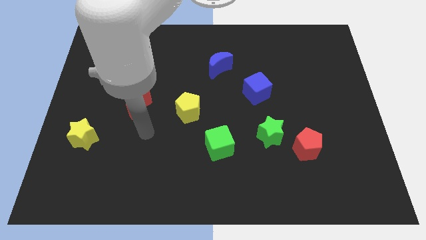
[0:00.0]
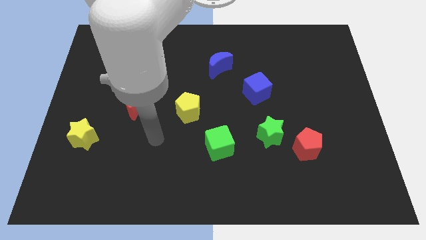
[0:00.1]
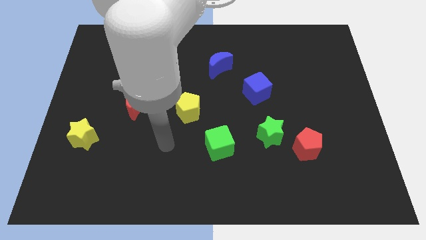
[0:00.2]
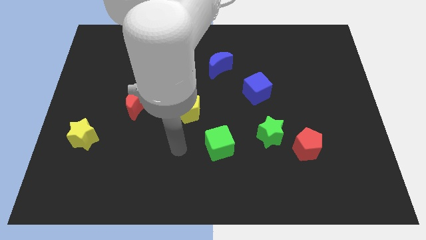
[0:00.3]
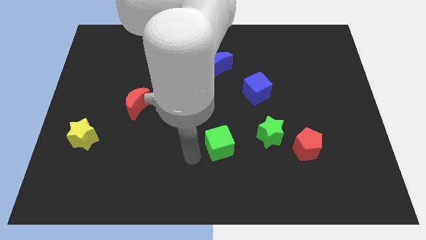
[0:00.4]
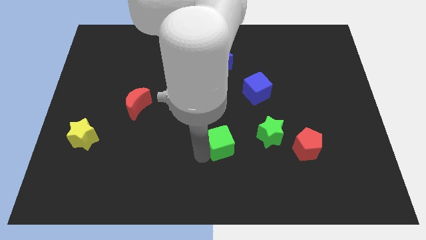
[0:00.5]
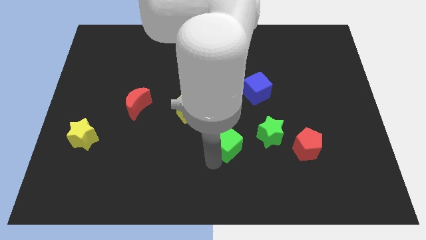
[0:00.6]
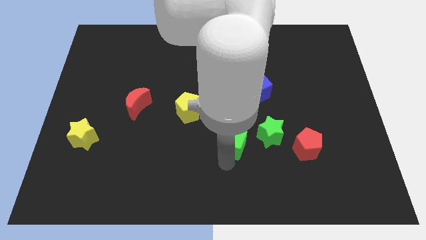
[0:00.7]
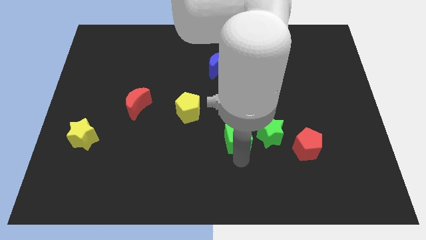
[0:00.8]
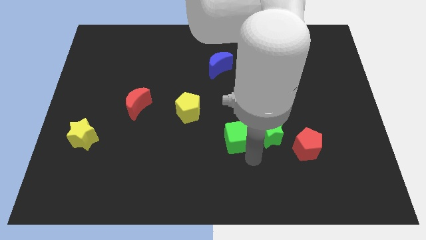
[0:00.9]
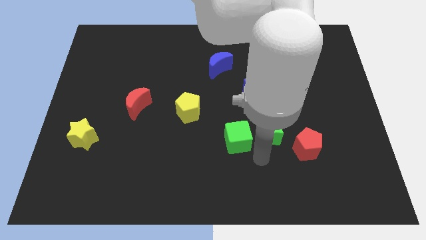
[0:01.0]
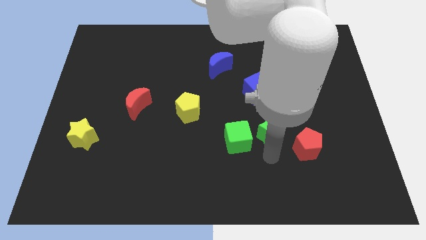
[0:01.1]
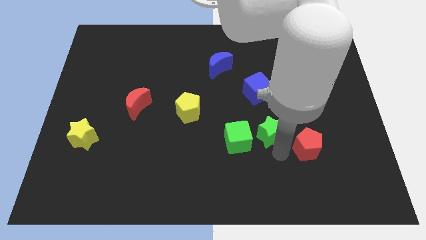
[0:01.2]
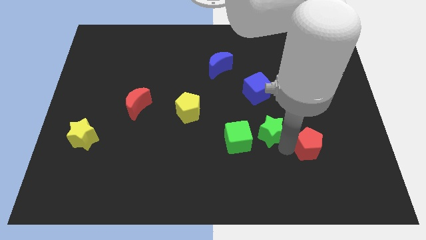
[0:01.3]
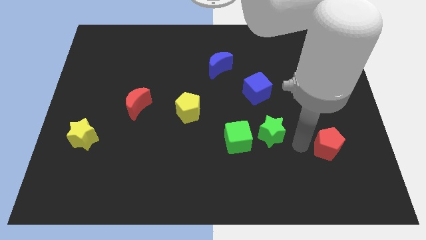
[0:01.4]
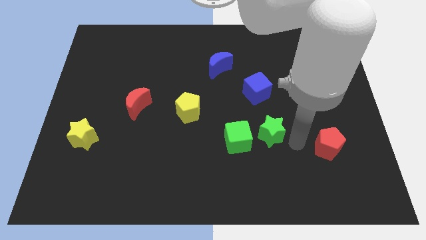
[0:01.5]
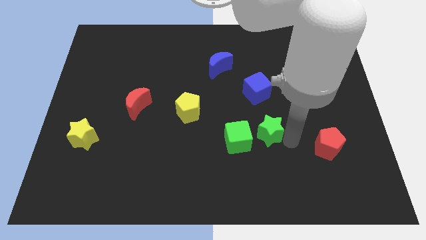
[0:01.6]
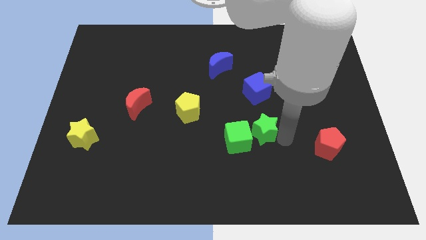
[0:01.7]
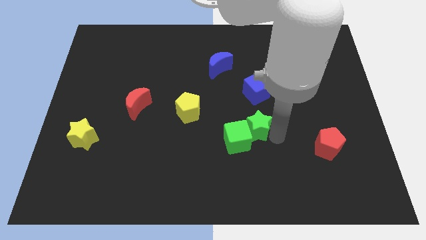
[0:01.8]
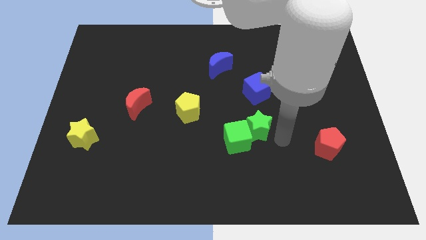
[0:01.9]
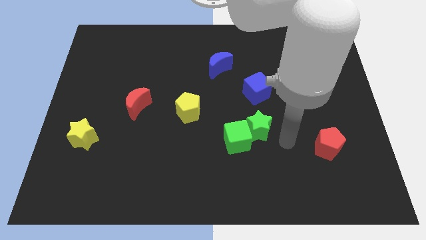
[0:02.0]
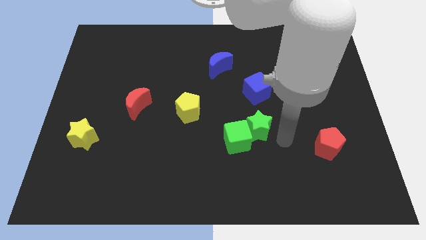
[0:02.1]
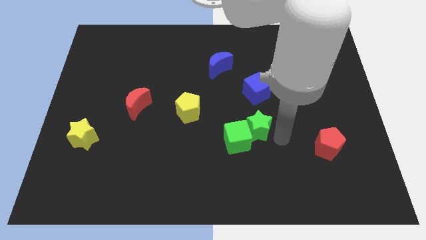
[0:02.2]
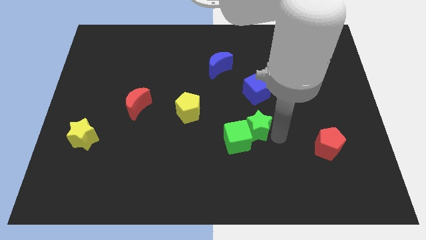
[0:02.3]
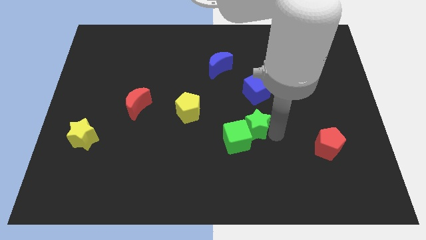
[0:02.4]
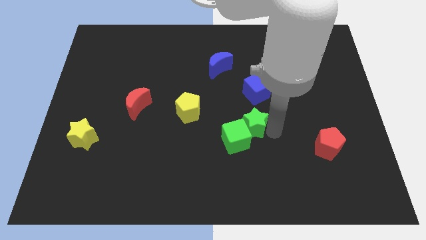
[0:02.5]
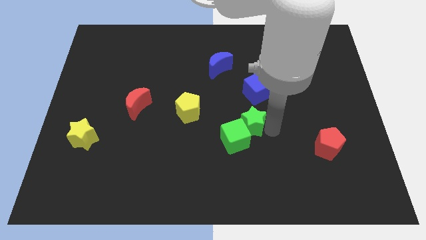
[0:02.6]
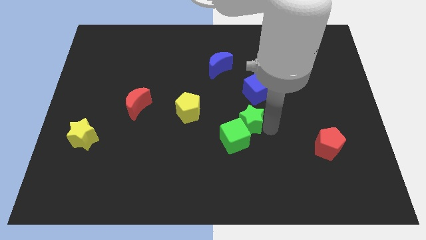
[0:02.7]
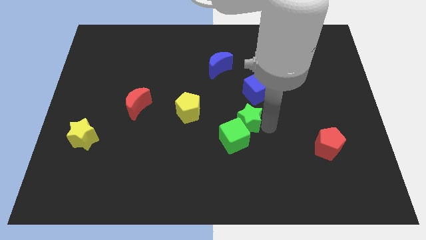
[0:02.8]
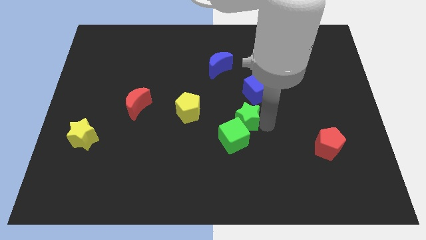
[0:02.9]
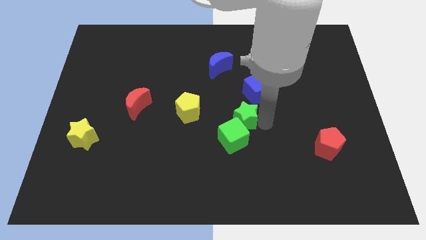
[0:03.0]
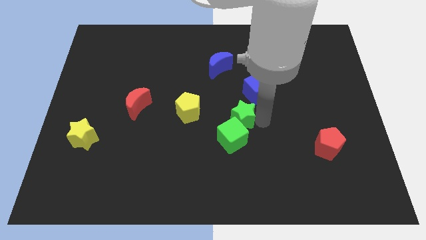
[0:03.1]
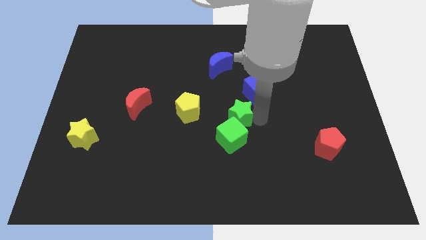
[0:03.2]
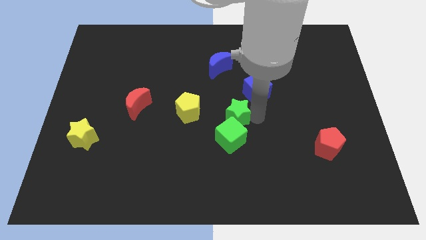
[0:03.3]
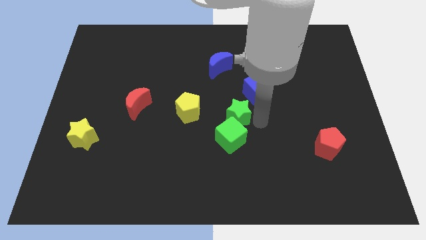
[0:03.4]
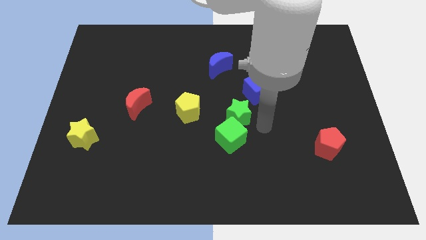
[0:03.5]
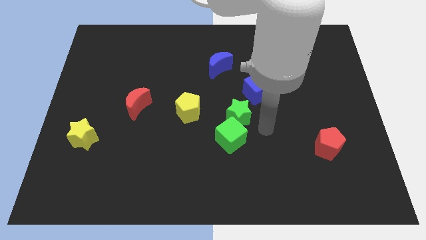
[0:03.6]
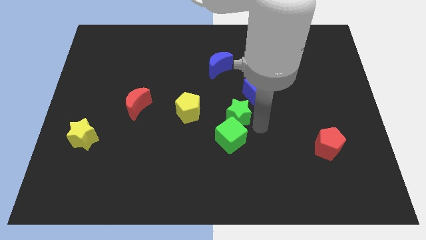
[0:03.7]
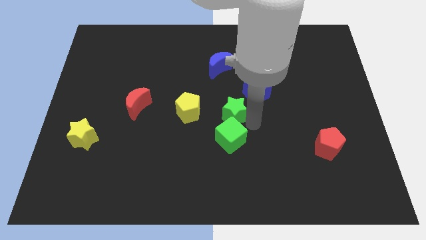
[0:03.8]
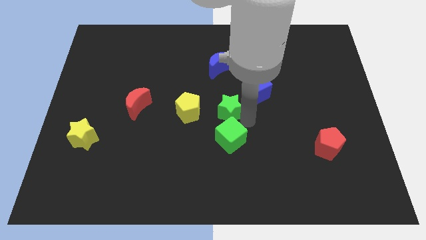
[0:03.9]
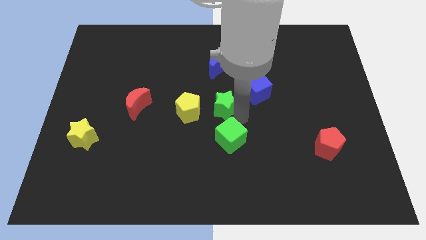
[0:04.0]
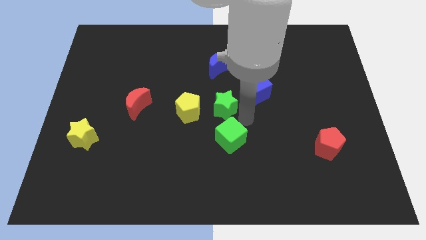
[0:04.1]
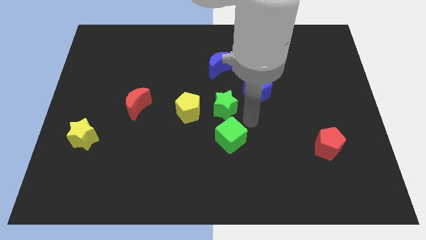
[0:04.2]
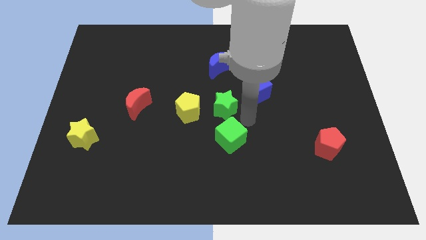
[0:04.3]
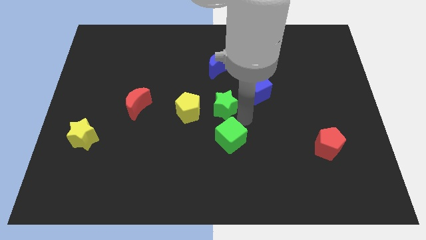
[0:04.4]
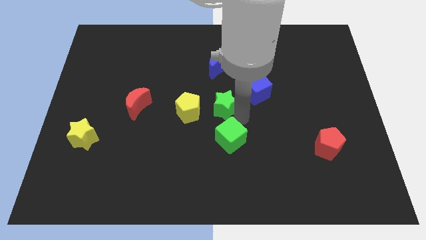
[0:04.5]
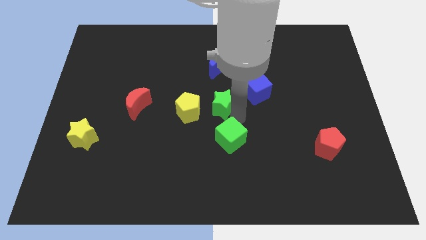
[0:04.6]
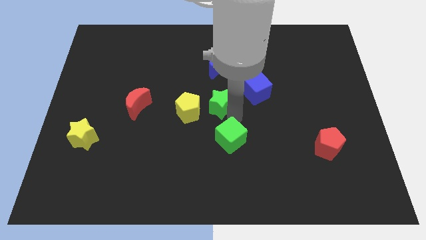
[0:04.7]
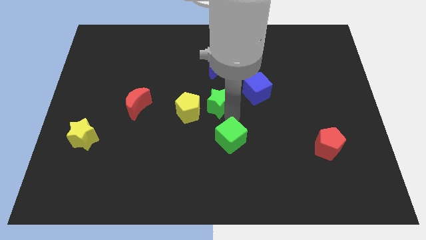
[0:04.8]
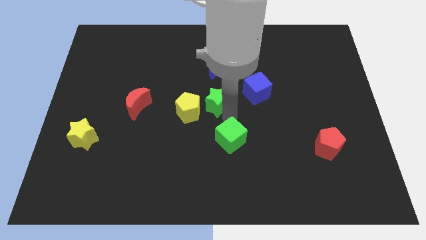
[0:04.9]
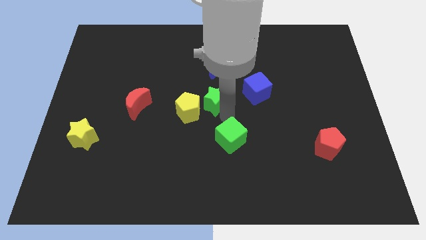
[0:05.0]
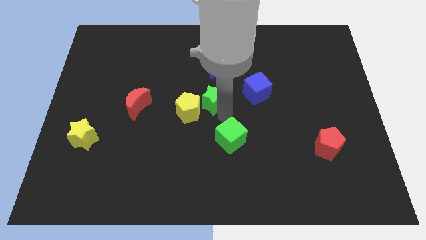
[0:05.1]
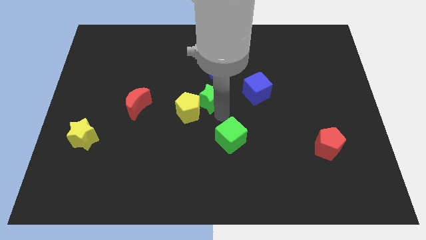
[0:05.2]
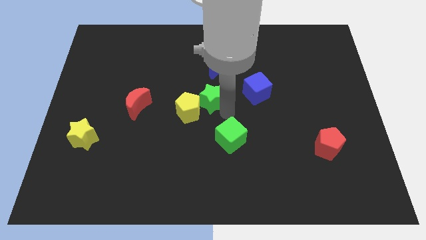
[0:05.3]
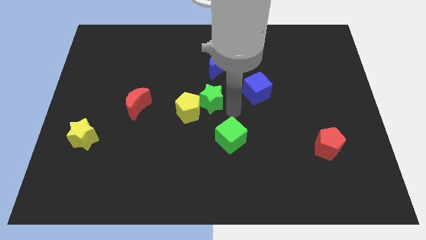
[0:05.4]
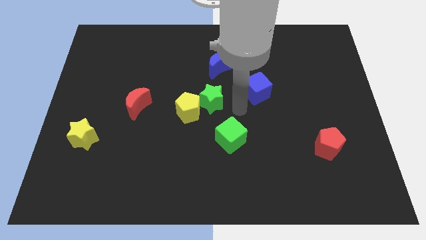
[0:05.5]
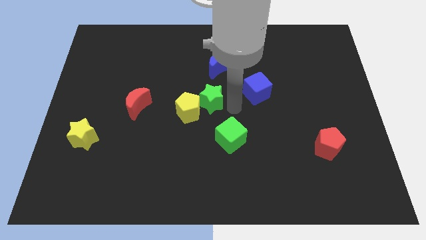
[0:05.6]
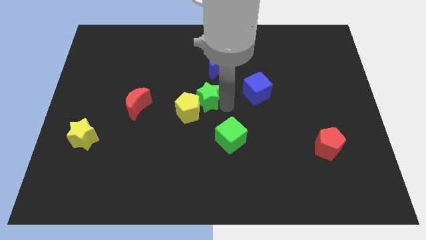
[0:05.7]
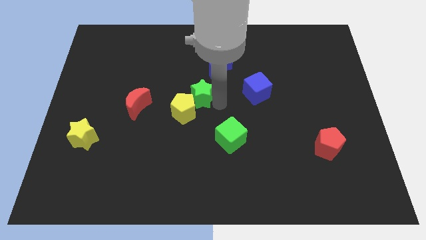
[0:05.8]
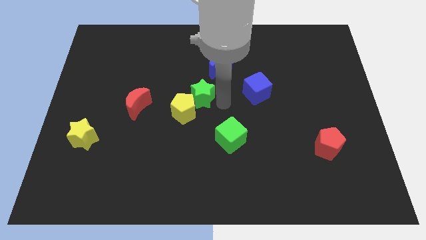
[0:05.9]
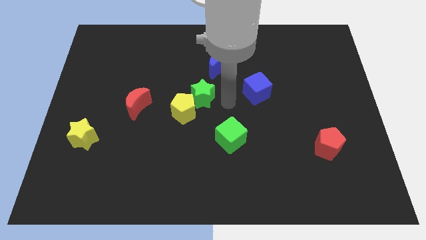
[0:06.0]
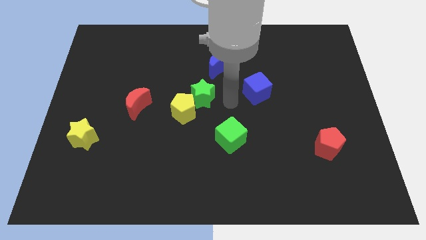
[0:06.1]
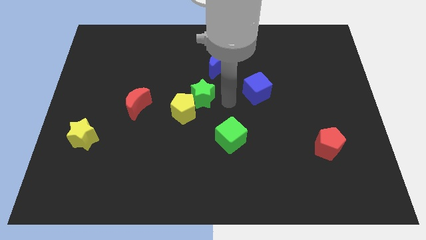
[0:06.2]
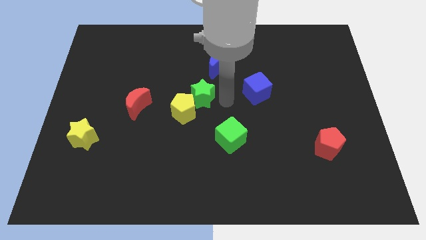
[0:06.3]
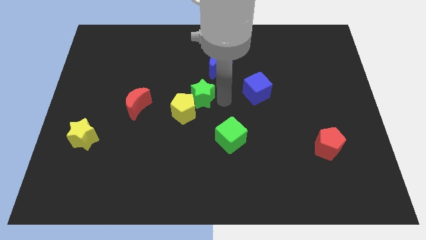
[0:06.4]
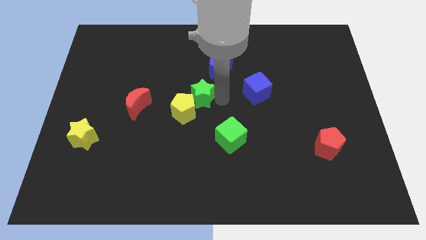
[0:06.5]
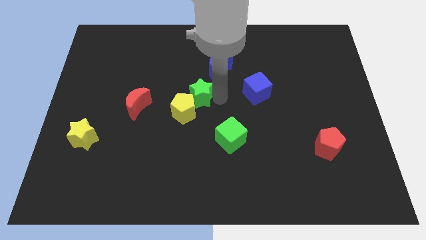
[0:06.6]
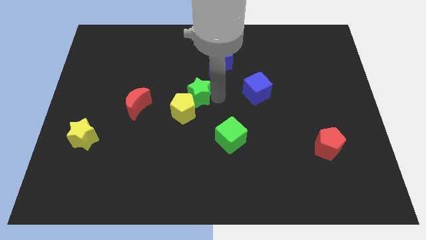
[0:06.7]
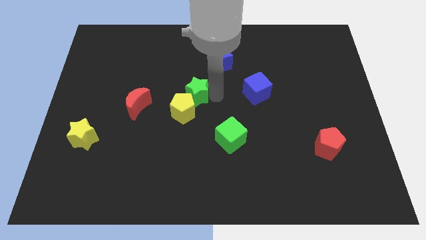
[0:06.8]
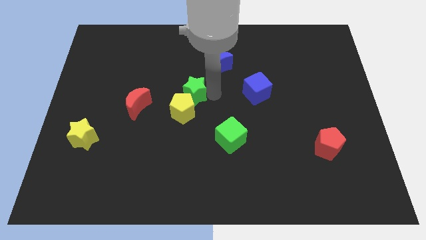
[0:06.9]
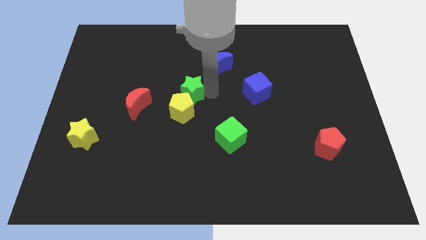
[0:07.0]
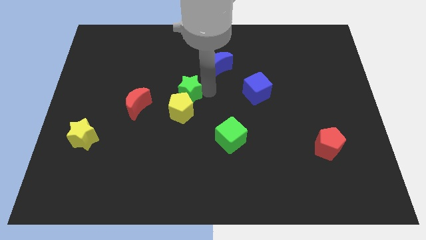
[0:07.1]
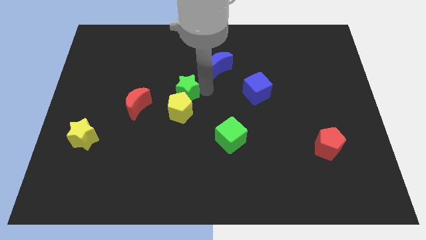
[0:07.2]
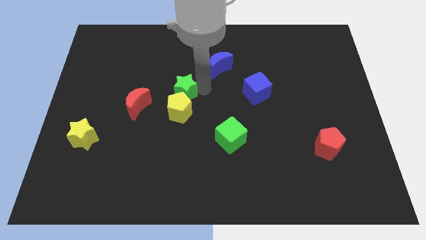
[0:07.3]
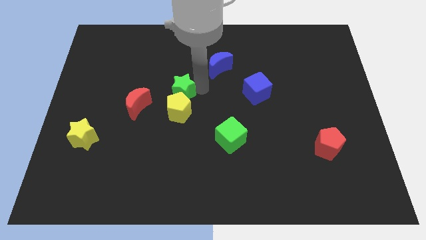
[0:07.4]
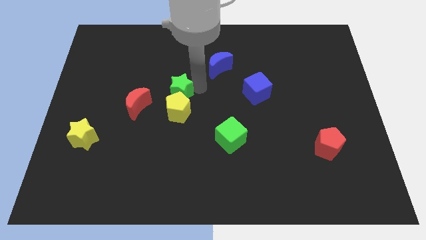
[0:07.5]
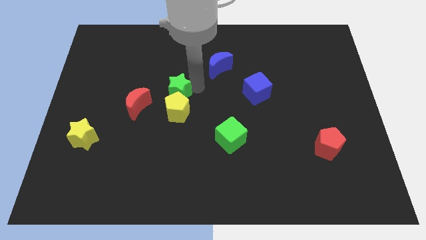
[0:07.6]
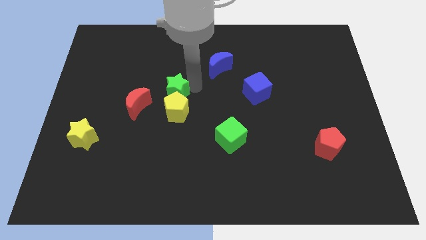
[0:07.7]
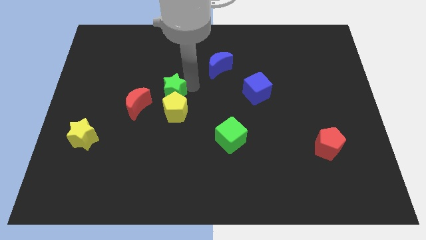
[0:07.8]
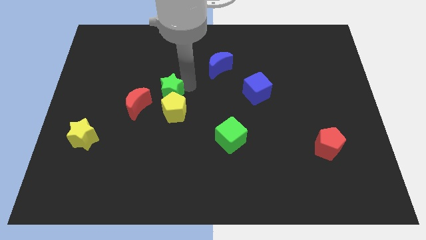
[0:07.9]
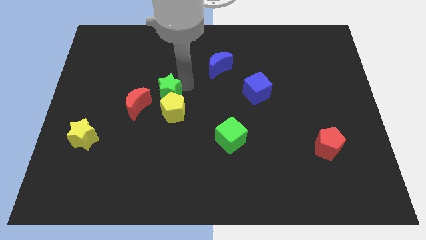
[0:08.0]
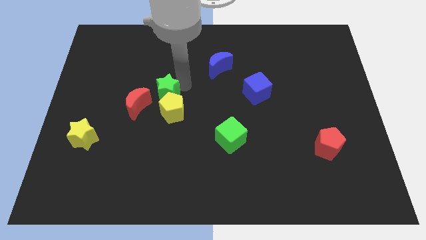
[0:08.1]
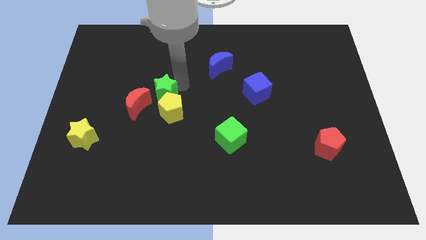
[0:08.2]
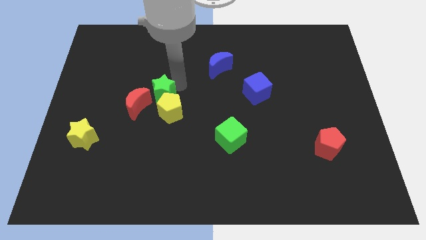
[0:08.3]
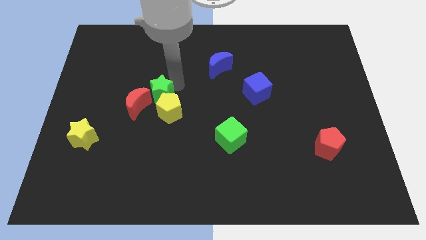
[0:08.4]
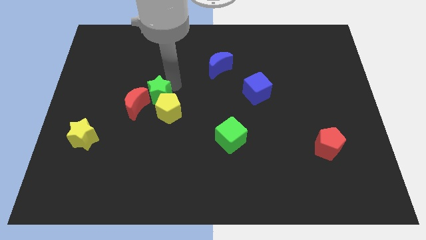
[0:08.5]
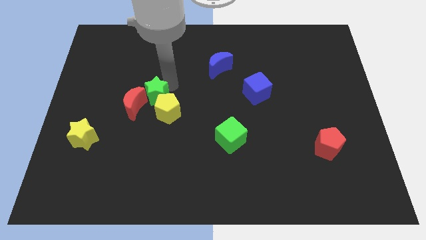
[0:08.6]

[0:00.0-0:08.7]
slide the green star next to the red moon
